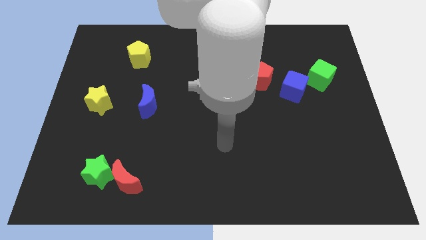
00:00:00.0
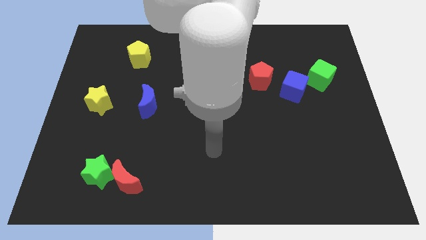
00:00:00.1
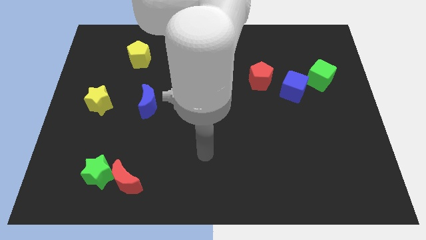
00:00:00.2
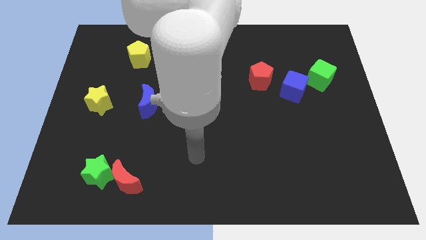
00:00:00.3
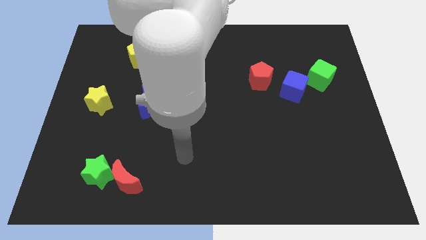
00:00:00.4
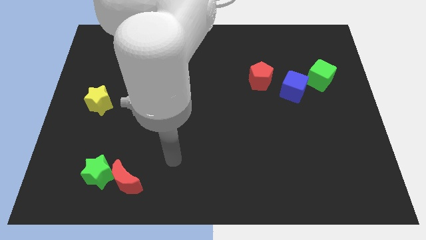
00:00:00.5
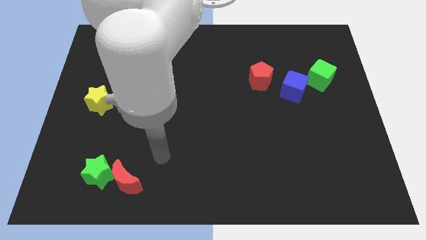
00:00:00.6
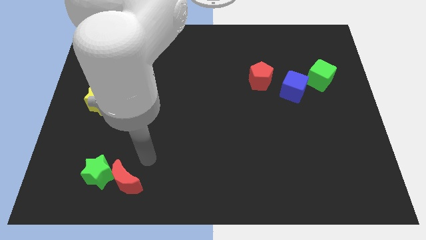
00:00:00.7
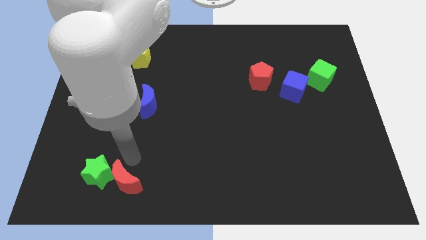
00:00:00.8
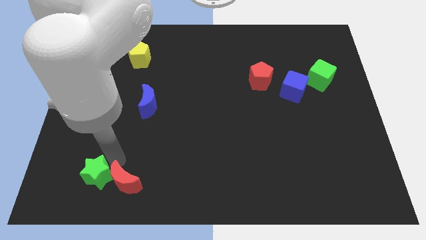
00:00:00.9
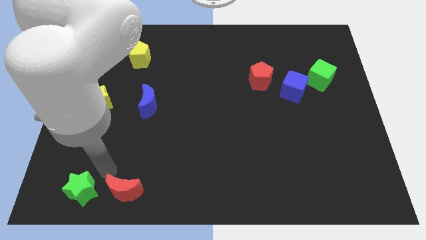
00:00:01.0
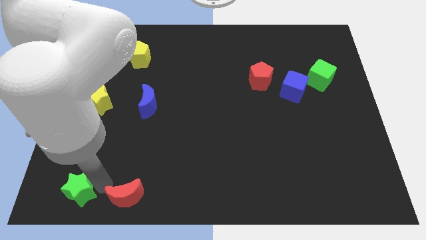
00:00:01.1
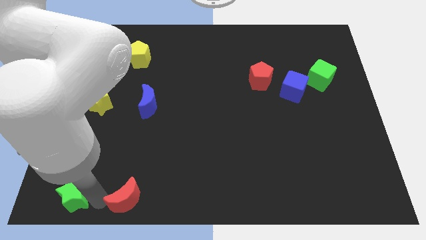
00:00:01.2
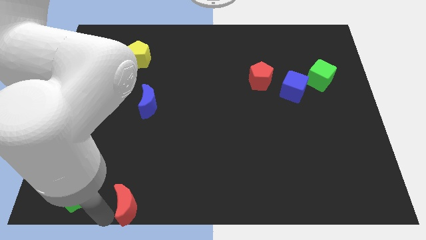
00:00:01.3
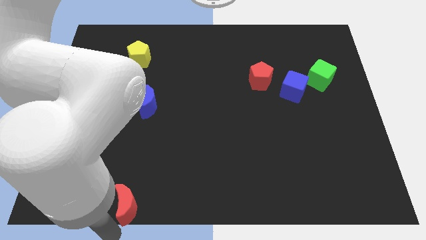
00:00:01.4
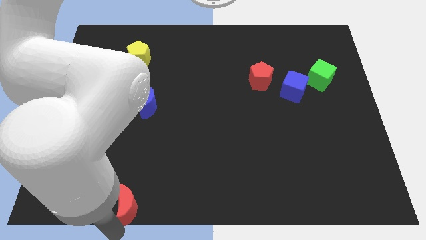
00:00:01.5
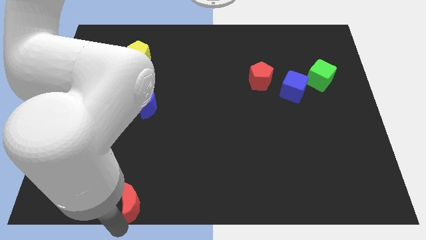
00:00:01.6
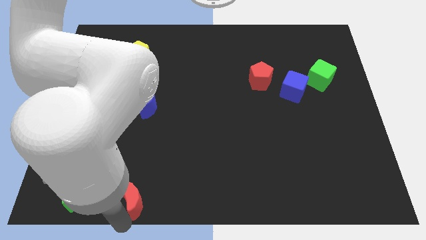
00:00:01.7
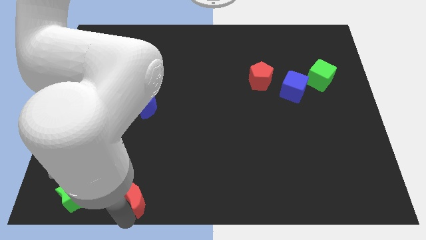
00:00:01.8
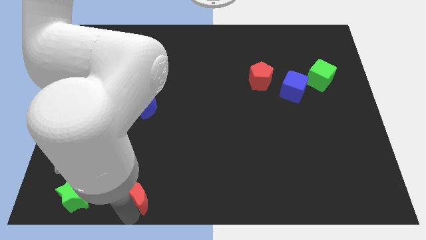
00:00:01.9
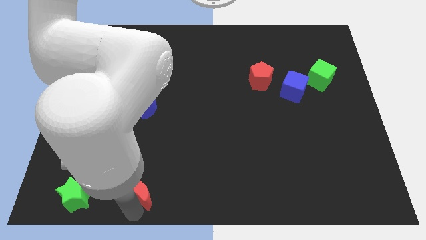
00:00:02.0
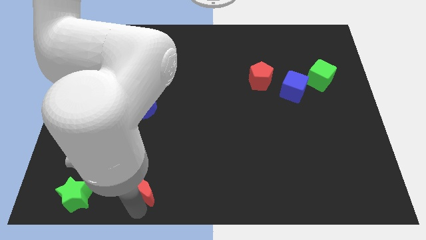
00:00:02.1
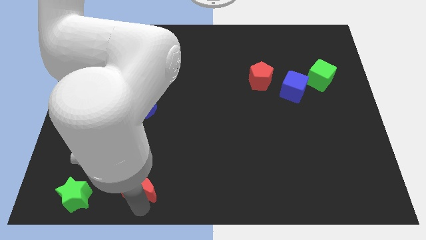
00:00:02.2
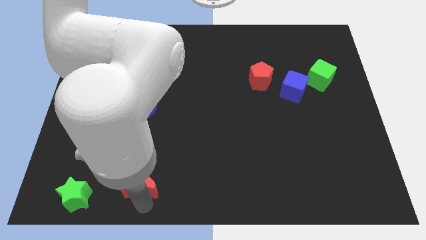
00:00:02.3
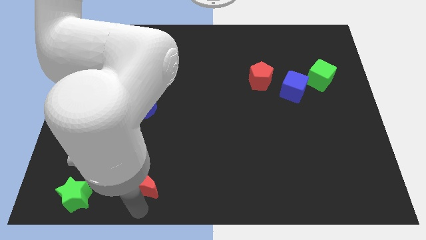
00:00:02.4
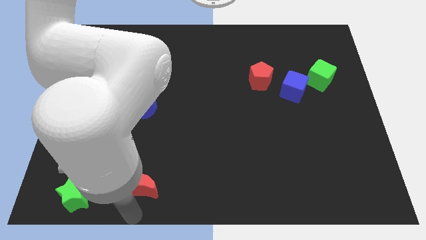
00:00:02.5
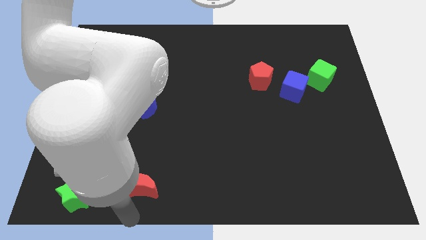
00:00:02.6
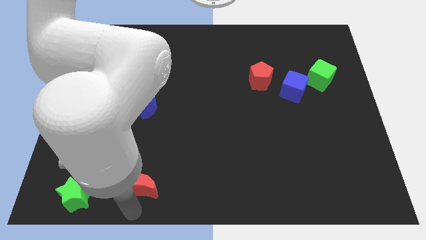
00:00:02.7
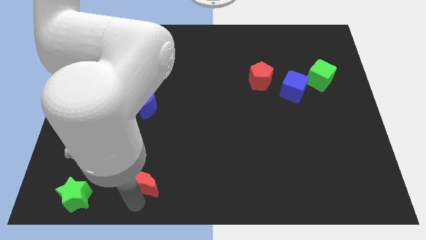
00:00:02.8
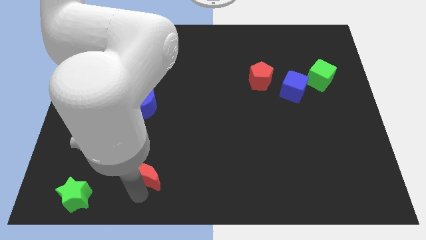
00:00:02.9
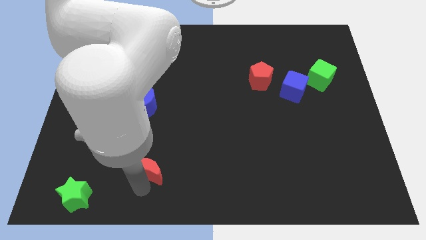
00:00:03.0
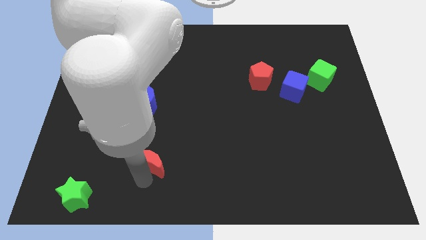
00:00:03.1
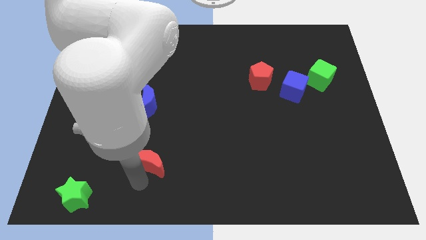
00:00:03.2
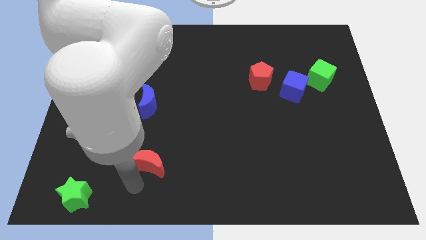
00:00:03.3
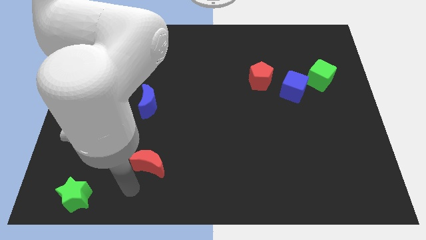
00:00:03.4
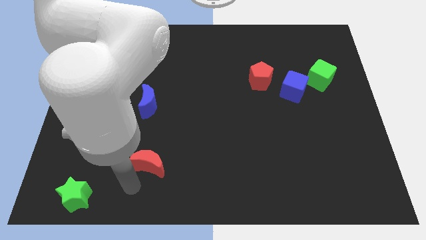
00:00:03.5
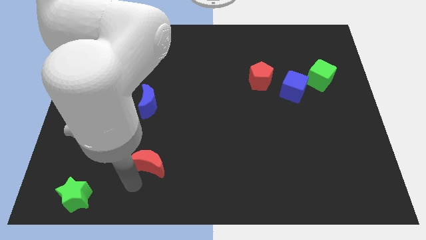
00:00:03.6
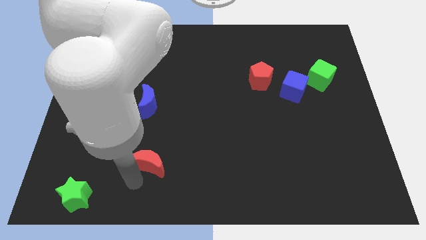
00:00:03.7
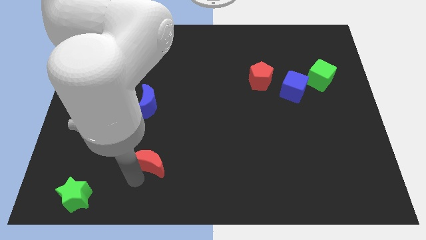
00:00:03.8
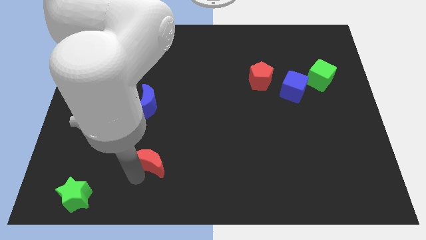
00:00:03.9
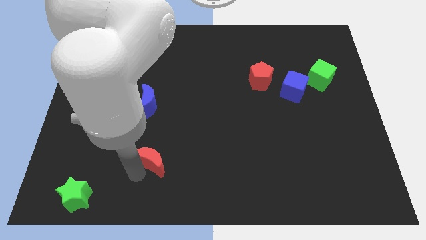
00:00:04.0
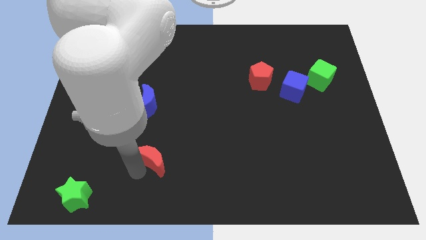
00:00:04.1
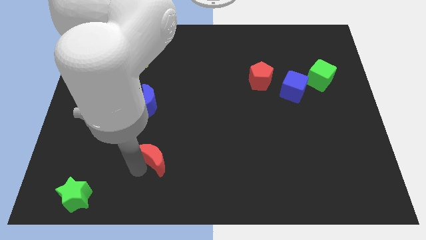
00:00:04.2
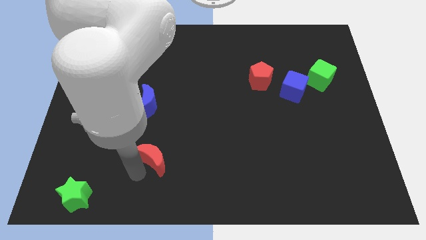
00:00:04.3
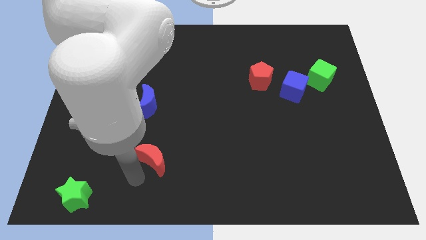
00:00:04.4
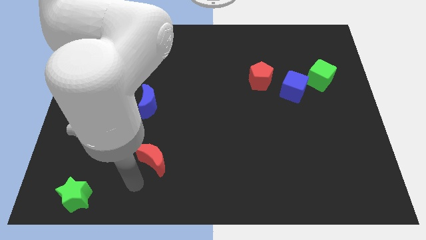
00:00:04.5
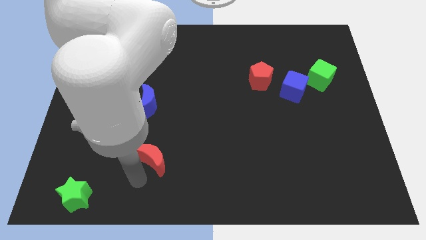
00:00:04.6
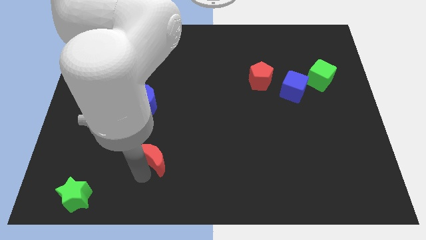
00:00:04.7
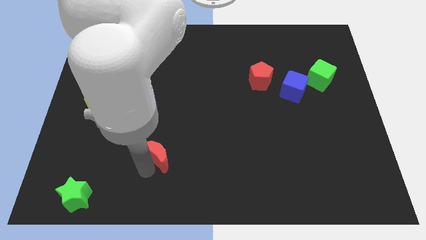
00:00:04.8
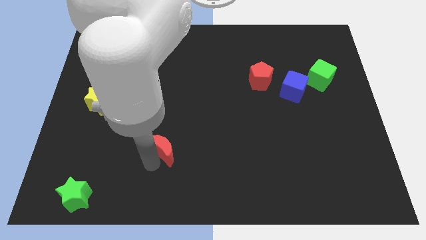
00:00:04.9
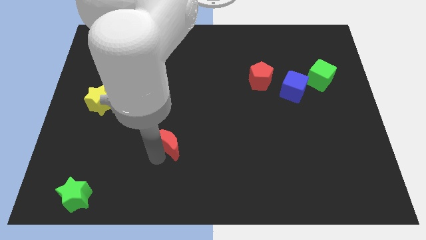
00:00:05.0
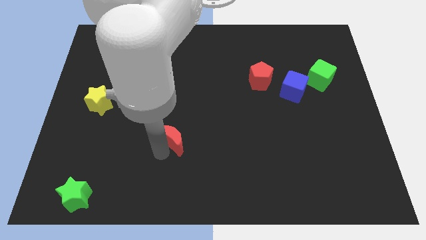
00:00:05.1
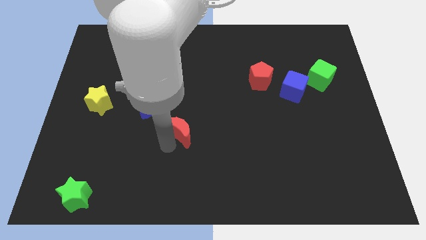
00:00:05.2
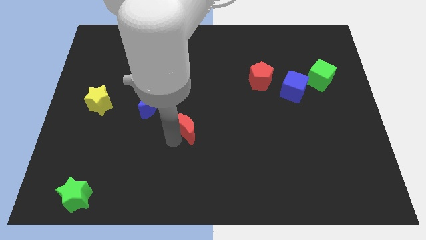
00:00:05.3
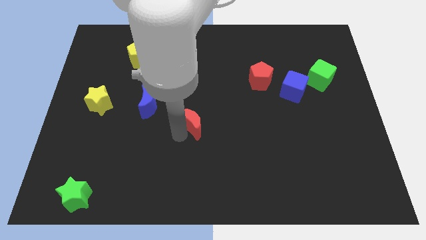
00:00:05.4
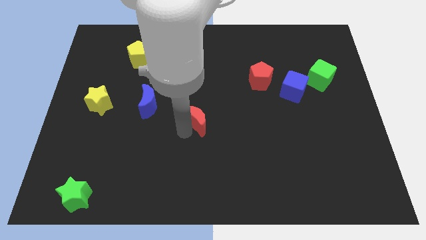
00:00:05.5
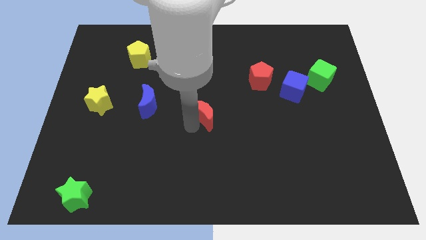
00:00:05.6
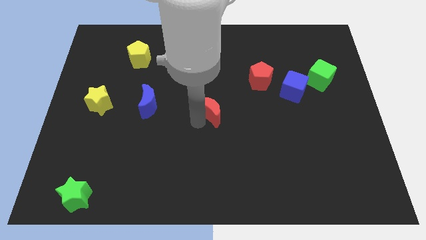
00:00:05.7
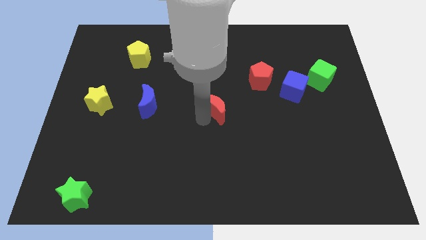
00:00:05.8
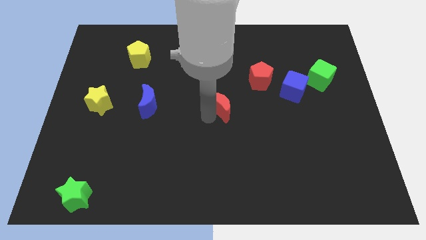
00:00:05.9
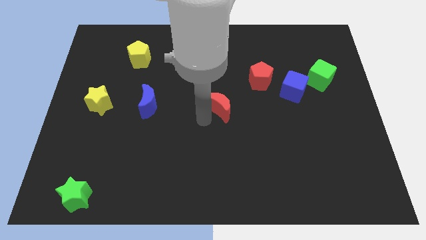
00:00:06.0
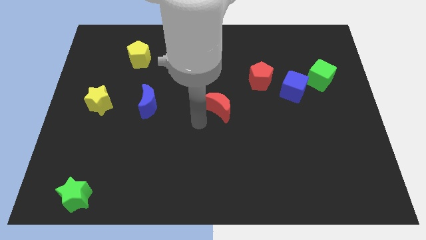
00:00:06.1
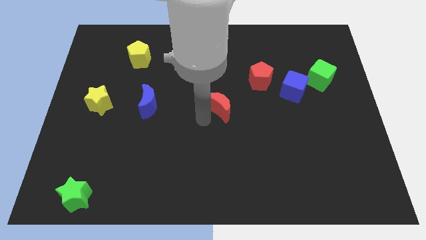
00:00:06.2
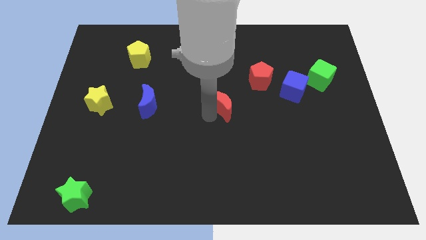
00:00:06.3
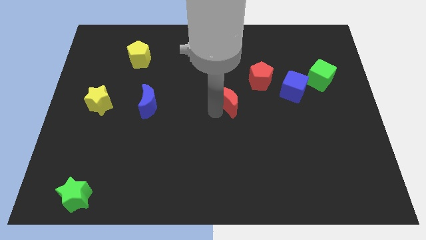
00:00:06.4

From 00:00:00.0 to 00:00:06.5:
push the red moon to the bottom left of the red pentagon

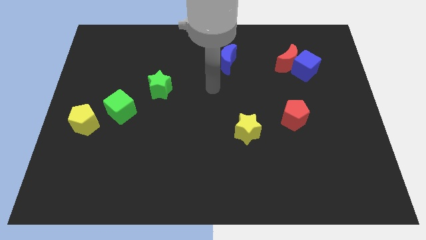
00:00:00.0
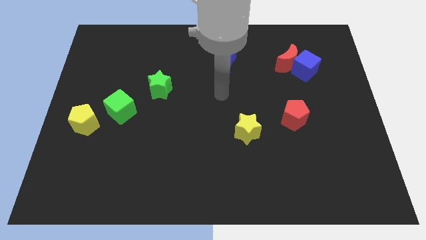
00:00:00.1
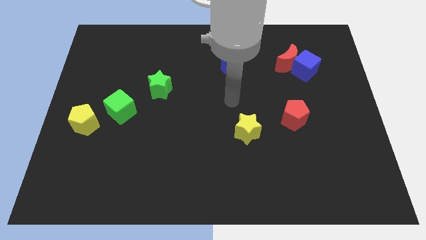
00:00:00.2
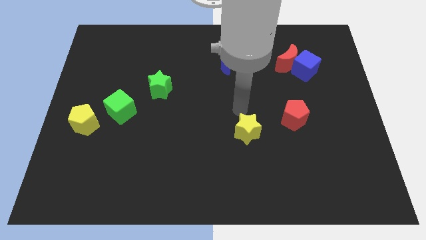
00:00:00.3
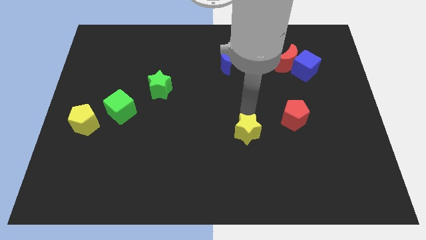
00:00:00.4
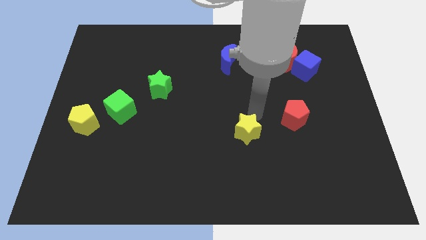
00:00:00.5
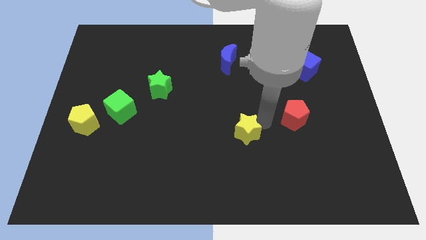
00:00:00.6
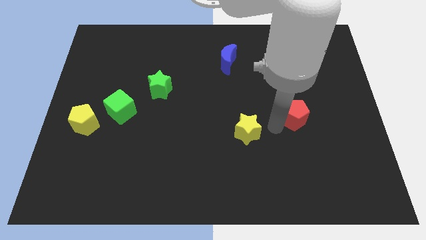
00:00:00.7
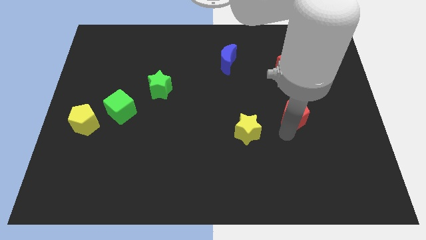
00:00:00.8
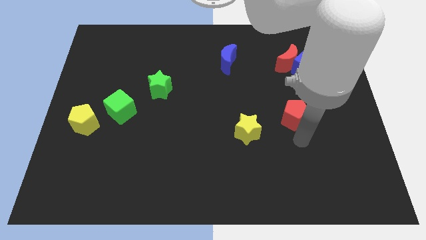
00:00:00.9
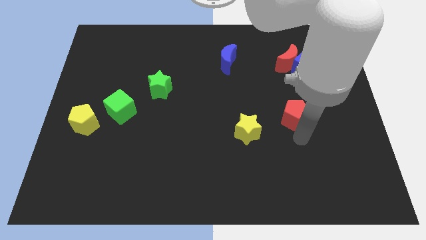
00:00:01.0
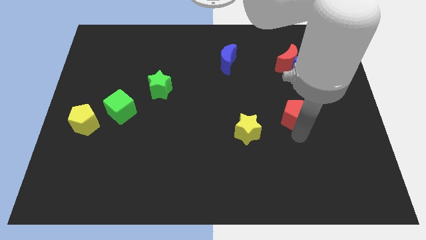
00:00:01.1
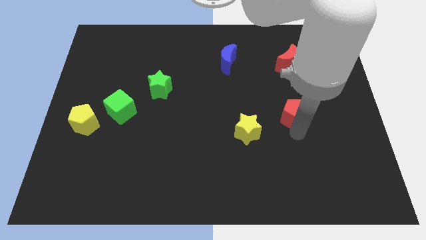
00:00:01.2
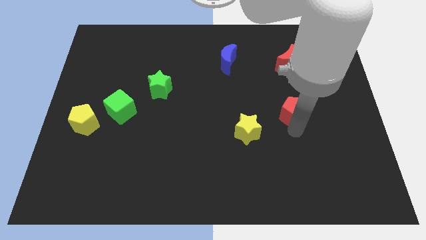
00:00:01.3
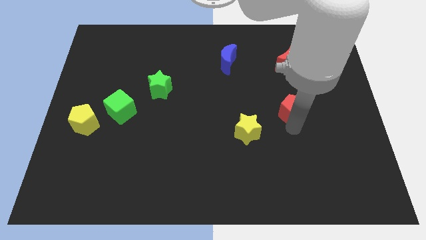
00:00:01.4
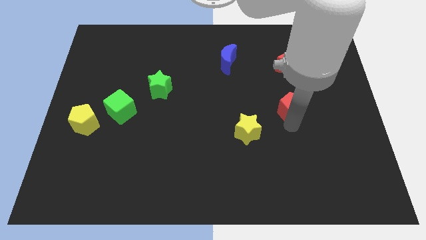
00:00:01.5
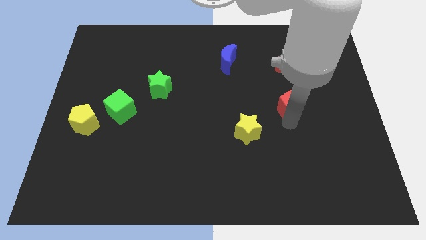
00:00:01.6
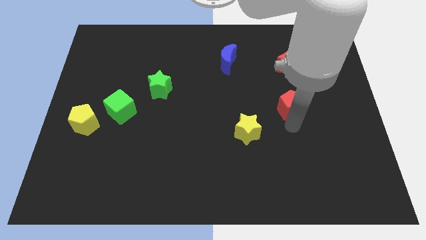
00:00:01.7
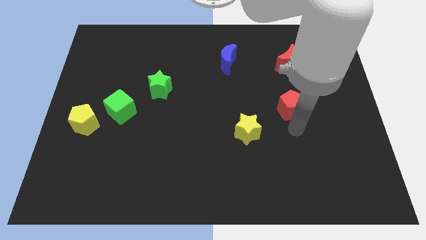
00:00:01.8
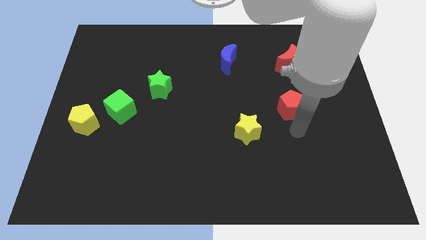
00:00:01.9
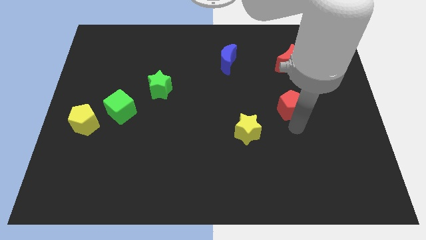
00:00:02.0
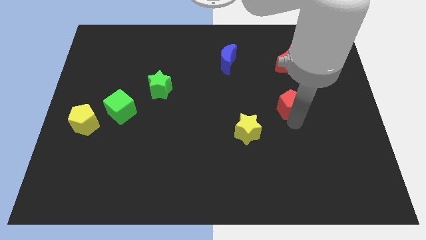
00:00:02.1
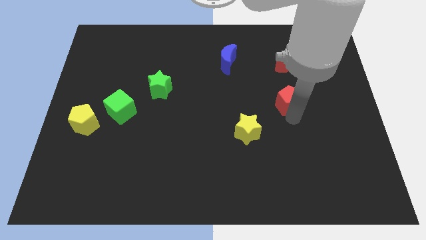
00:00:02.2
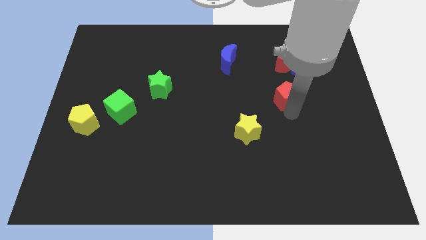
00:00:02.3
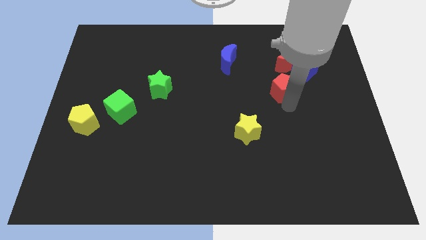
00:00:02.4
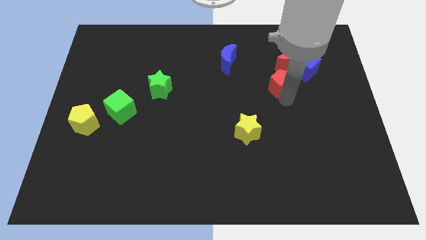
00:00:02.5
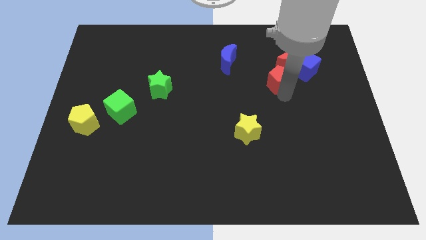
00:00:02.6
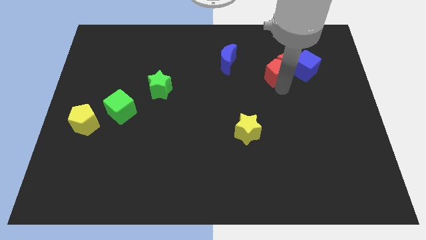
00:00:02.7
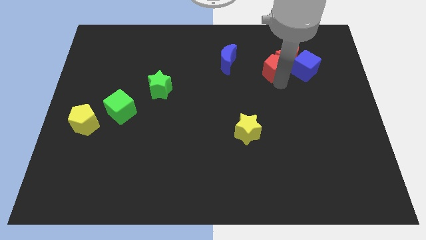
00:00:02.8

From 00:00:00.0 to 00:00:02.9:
move the red pentagon right of the blue moon
